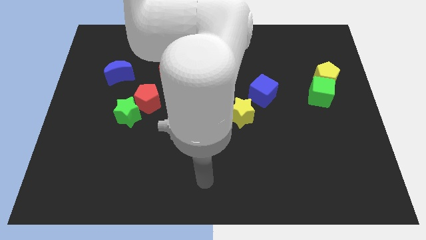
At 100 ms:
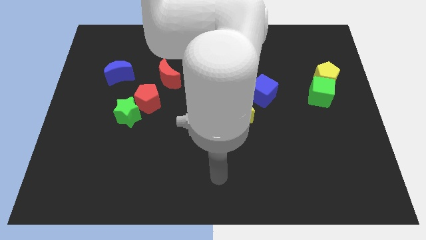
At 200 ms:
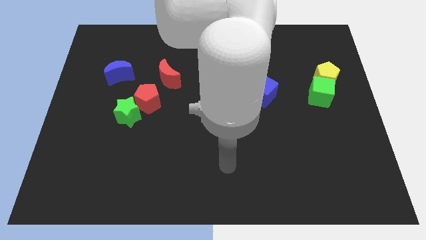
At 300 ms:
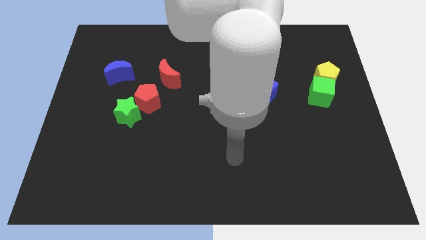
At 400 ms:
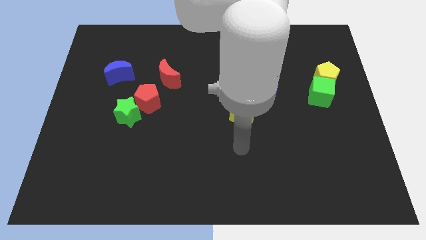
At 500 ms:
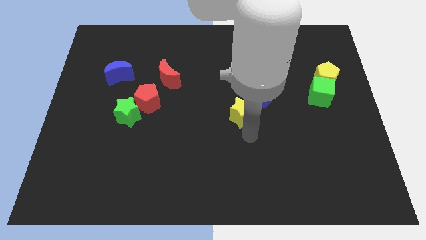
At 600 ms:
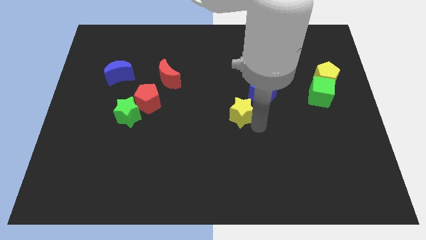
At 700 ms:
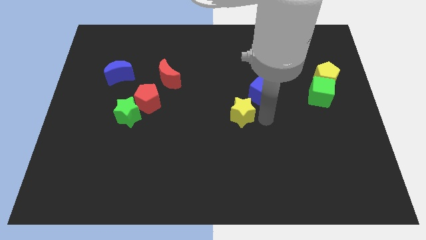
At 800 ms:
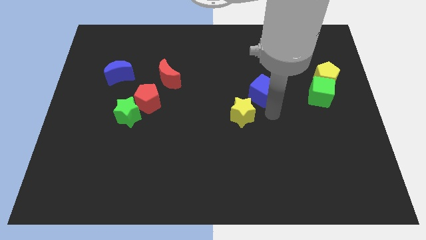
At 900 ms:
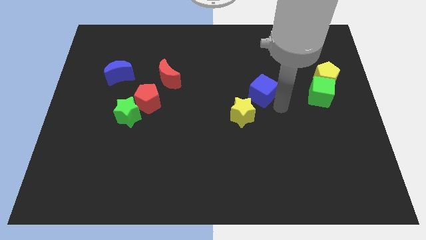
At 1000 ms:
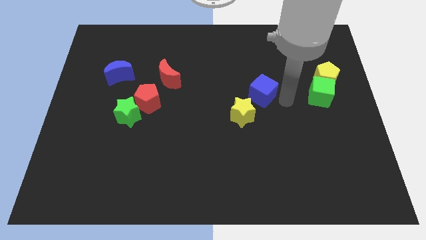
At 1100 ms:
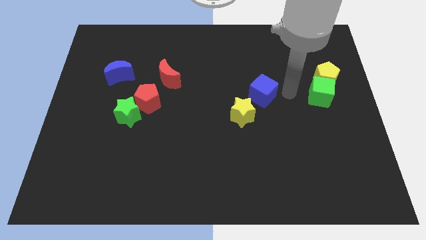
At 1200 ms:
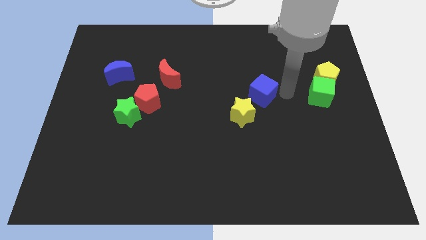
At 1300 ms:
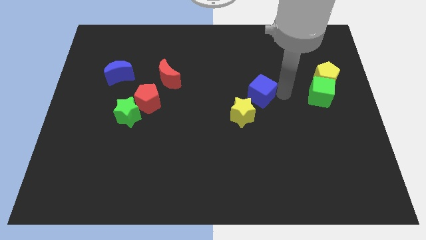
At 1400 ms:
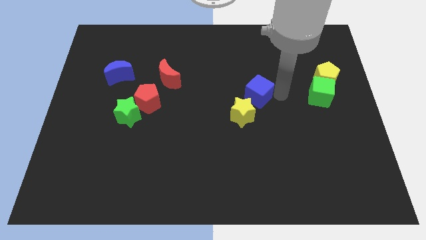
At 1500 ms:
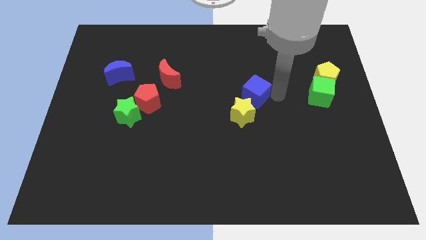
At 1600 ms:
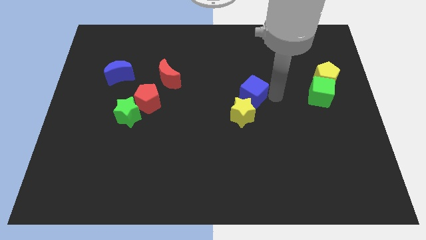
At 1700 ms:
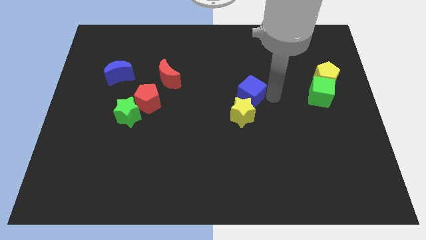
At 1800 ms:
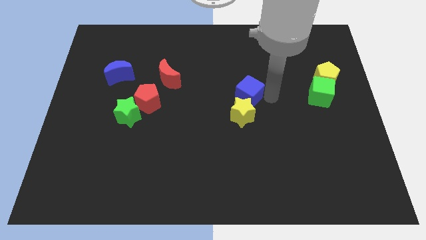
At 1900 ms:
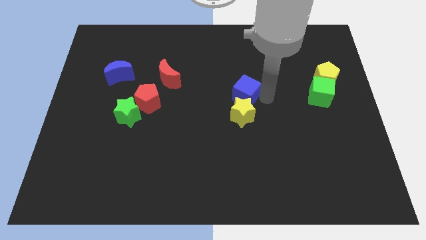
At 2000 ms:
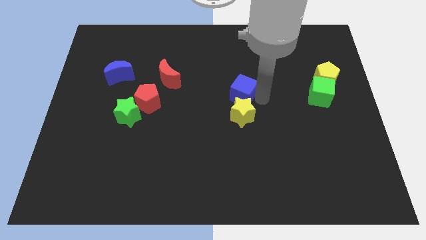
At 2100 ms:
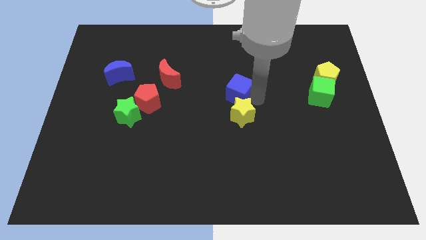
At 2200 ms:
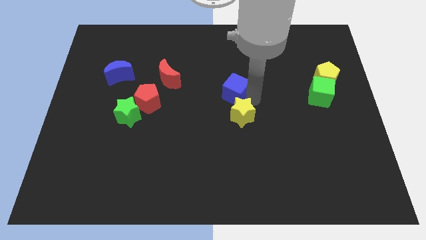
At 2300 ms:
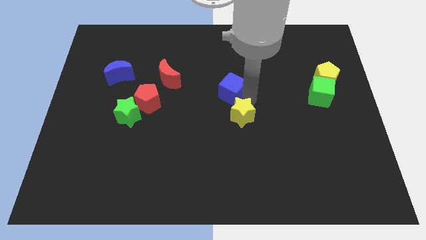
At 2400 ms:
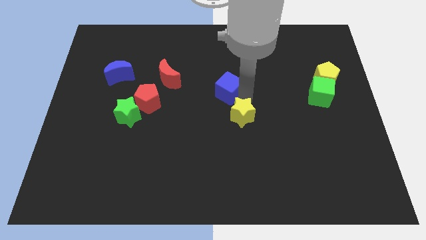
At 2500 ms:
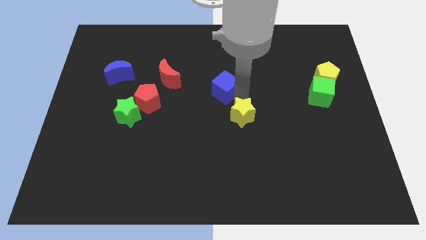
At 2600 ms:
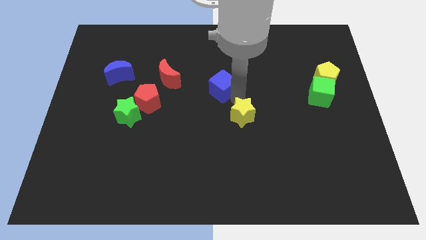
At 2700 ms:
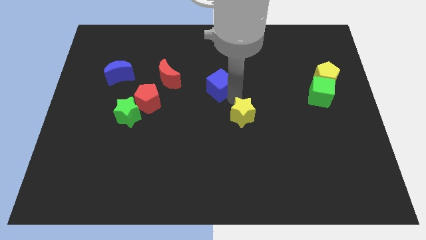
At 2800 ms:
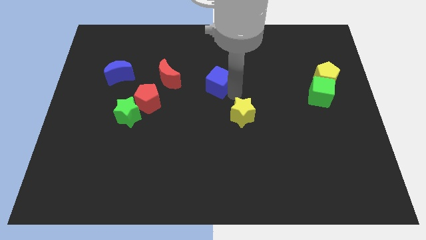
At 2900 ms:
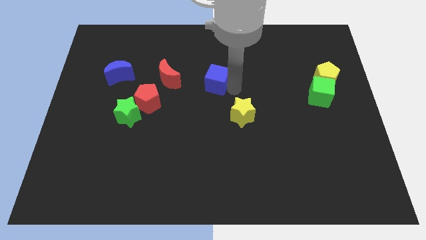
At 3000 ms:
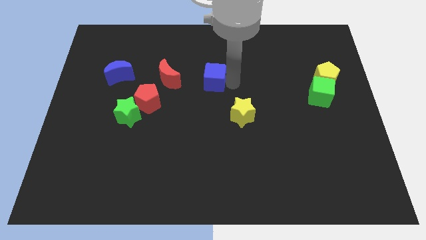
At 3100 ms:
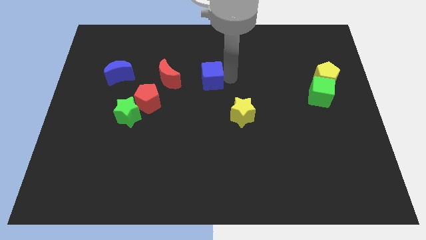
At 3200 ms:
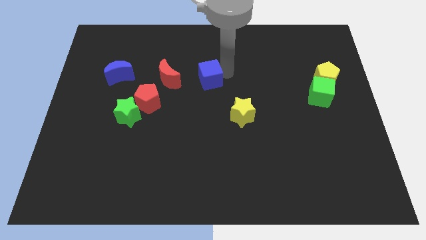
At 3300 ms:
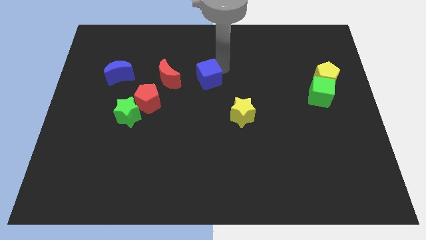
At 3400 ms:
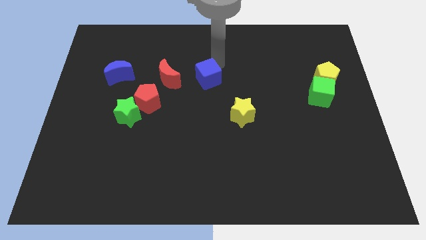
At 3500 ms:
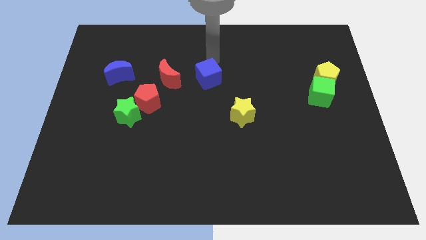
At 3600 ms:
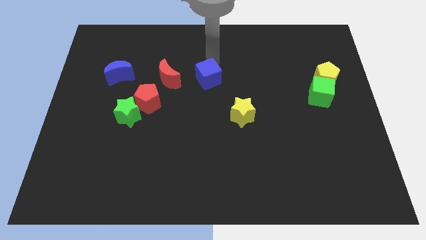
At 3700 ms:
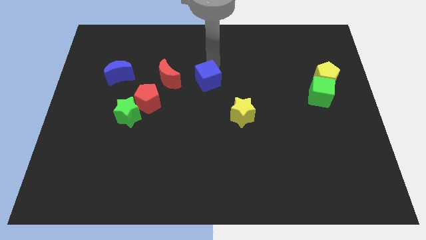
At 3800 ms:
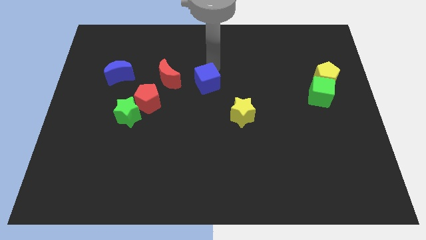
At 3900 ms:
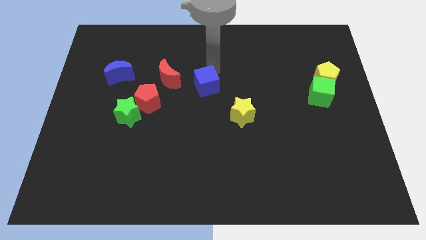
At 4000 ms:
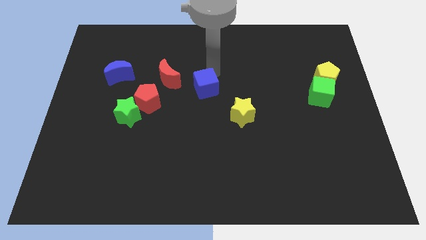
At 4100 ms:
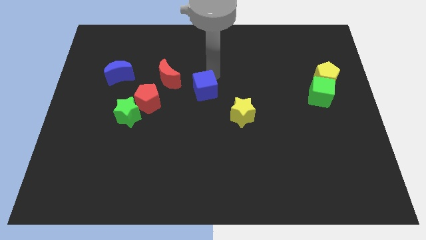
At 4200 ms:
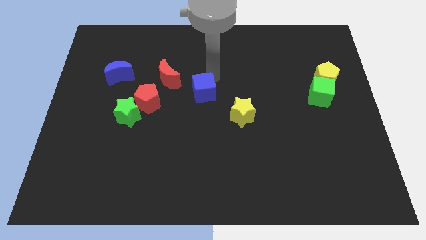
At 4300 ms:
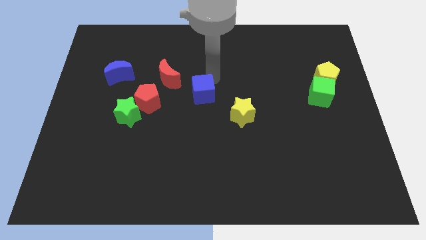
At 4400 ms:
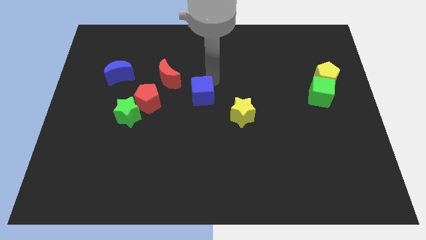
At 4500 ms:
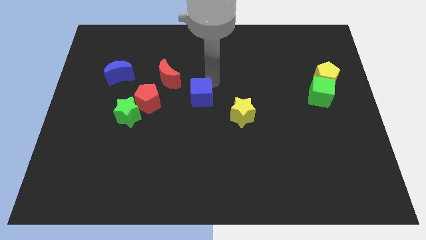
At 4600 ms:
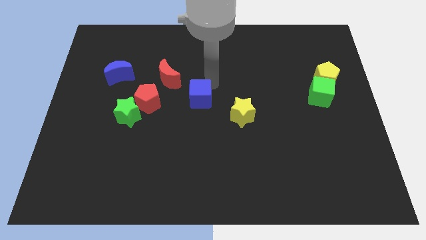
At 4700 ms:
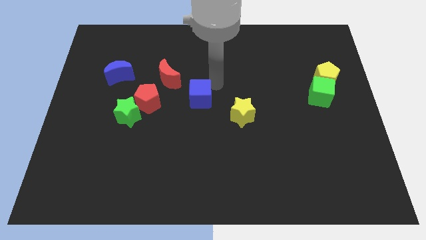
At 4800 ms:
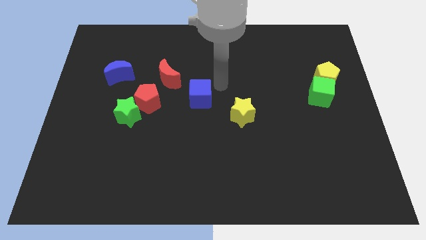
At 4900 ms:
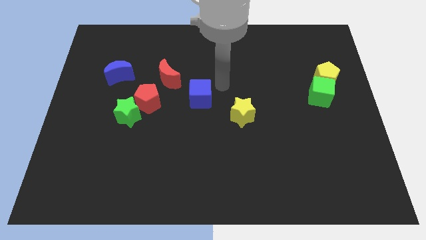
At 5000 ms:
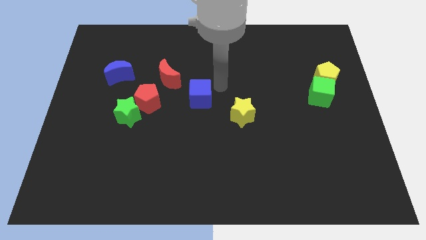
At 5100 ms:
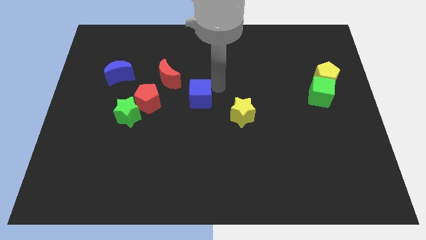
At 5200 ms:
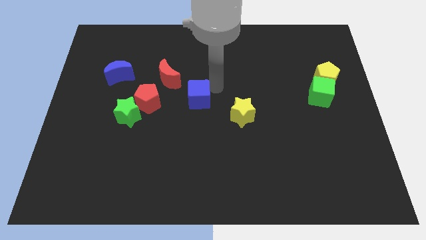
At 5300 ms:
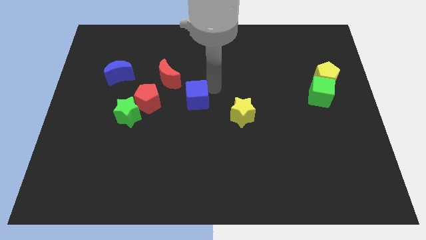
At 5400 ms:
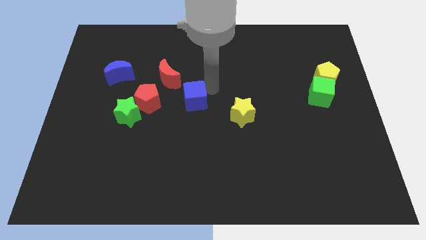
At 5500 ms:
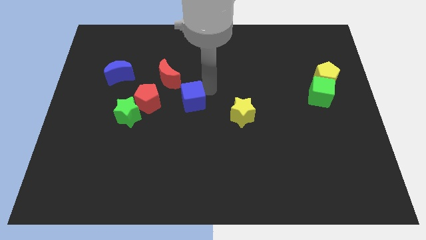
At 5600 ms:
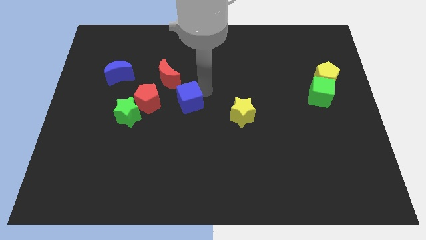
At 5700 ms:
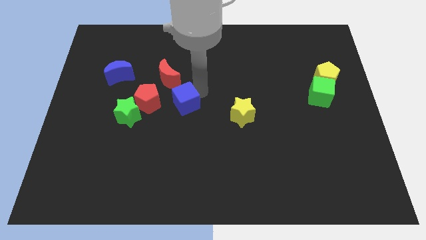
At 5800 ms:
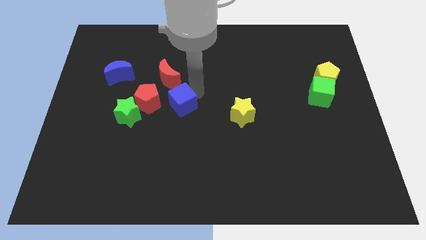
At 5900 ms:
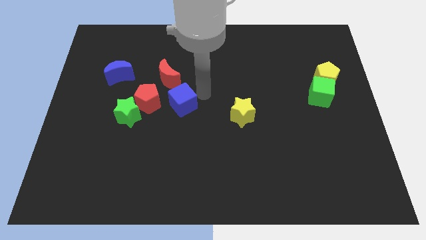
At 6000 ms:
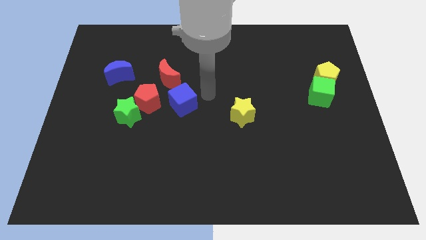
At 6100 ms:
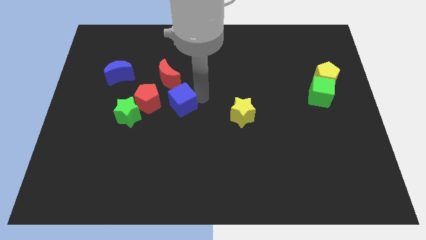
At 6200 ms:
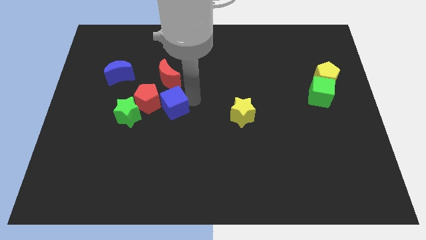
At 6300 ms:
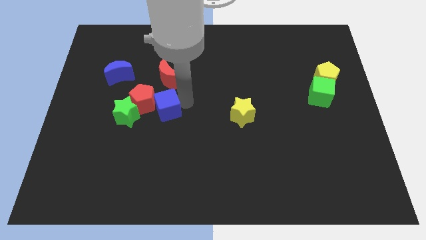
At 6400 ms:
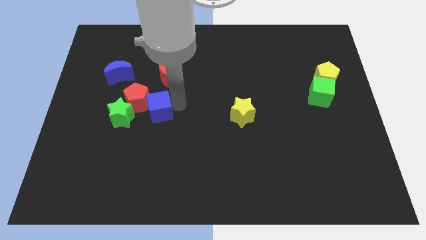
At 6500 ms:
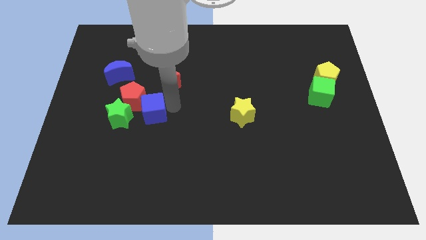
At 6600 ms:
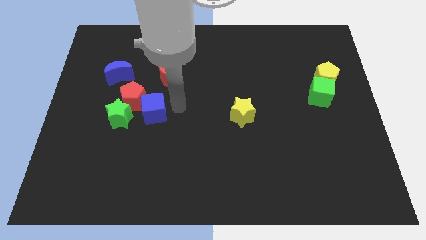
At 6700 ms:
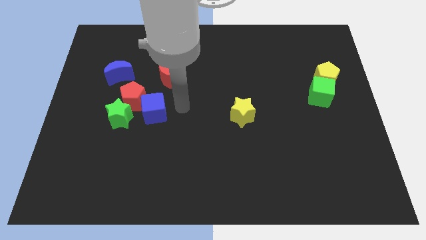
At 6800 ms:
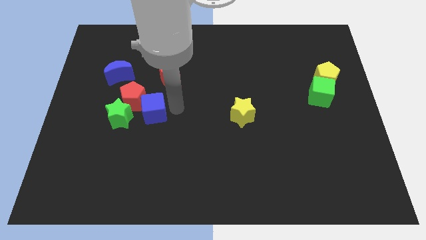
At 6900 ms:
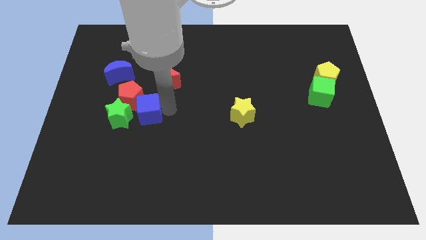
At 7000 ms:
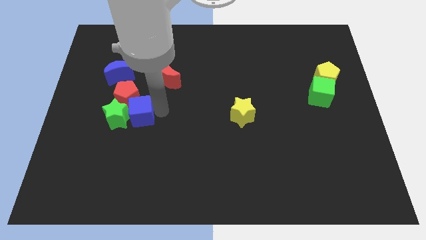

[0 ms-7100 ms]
slide the blue cube to the green star

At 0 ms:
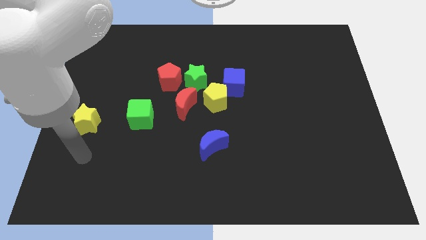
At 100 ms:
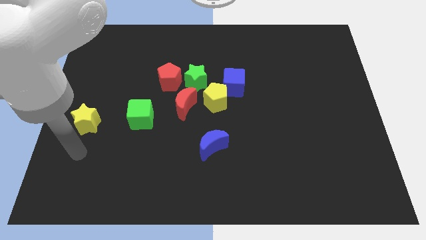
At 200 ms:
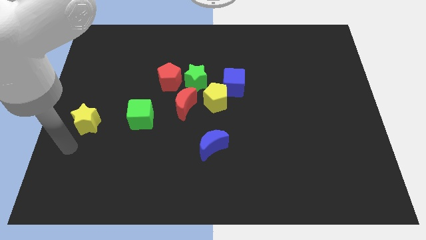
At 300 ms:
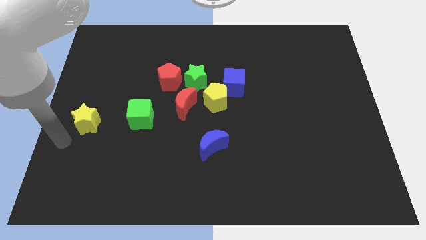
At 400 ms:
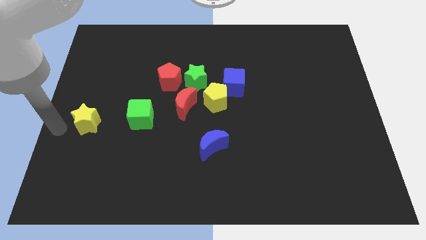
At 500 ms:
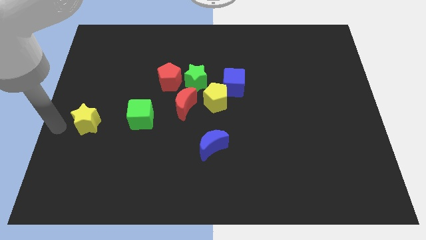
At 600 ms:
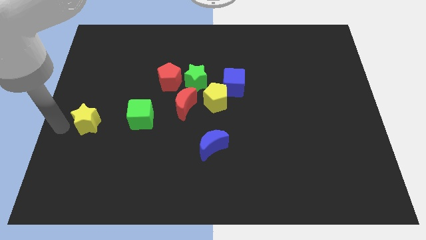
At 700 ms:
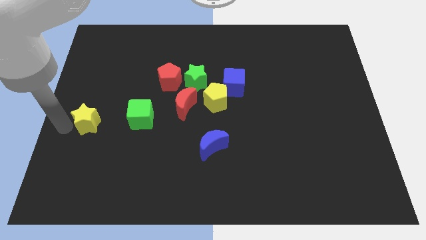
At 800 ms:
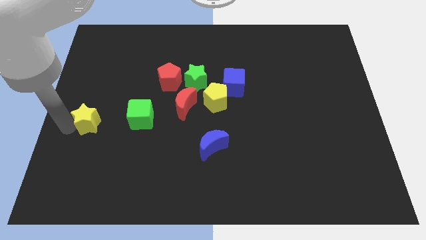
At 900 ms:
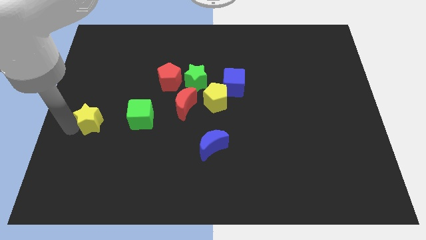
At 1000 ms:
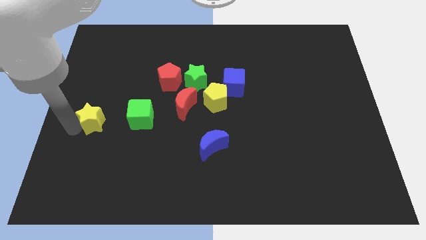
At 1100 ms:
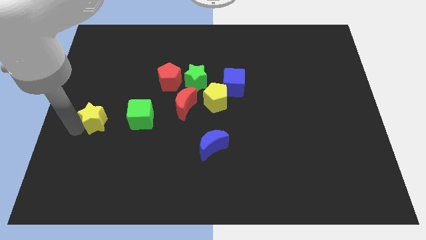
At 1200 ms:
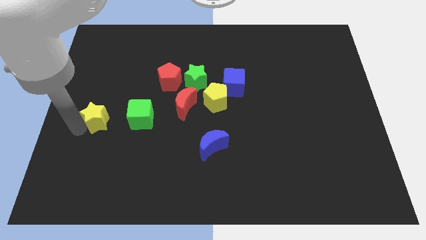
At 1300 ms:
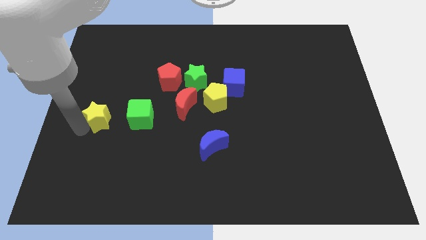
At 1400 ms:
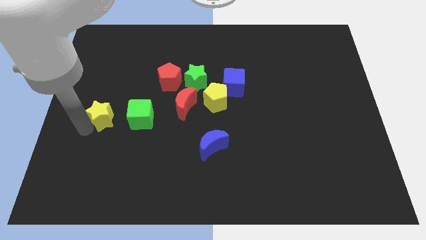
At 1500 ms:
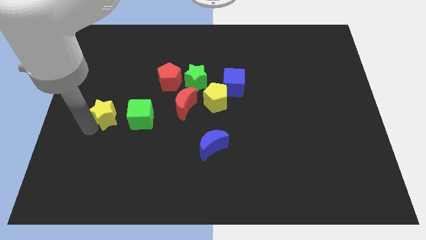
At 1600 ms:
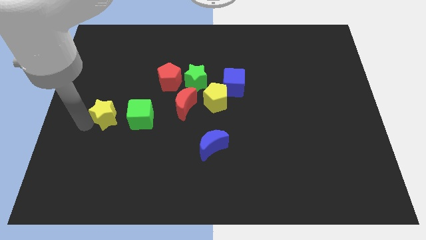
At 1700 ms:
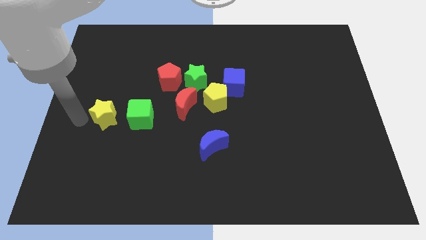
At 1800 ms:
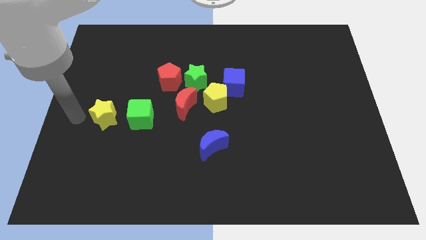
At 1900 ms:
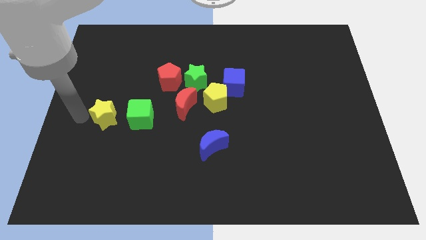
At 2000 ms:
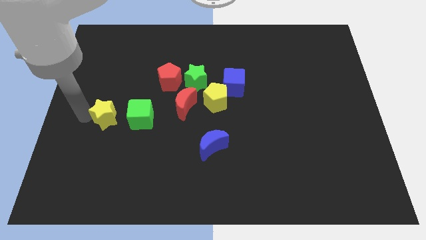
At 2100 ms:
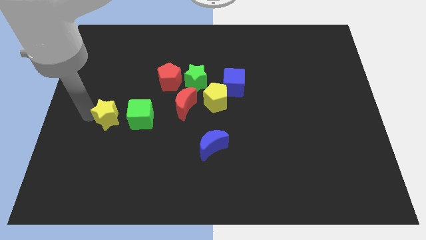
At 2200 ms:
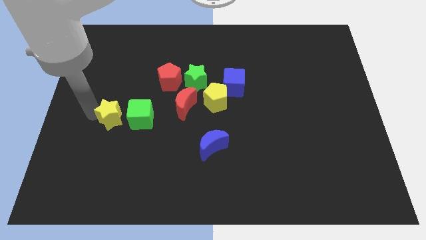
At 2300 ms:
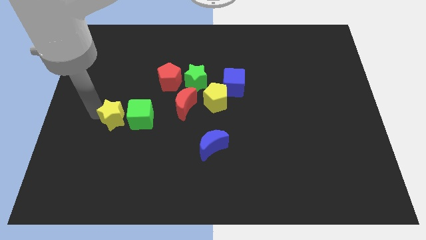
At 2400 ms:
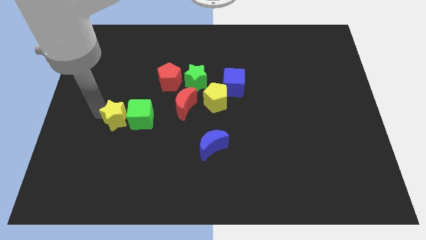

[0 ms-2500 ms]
put the yellow star towards the green cube
